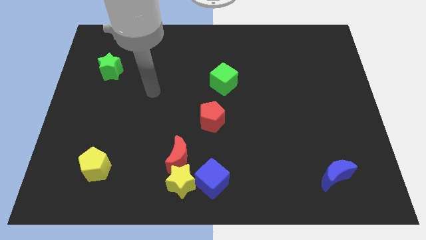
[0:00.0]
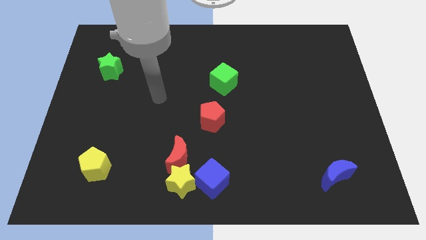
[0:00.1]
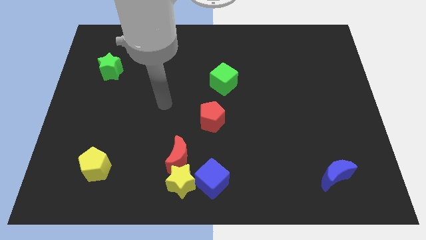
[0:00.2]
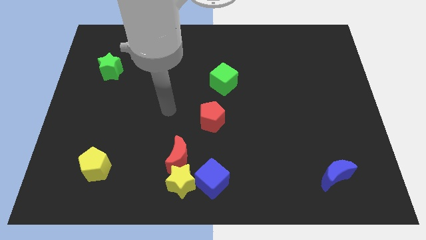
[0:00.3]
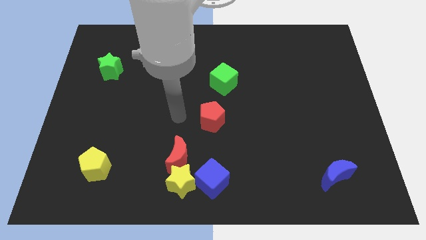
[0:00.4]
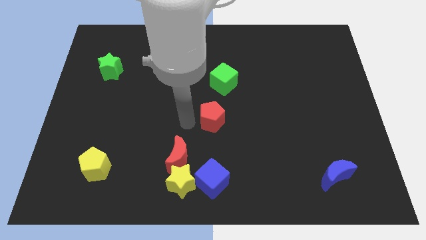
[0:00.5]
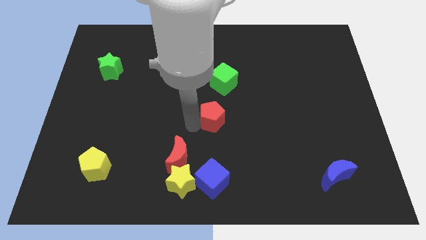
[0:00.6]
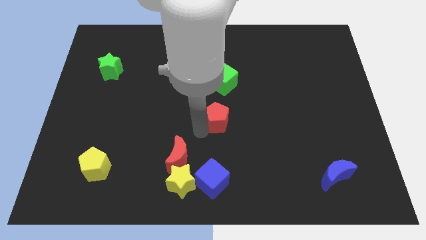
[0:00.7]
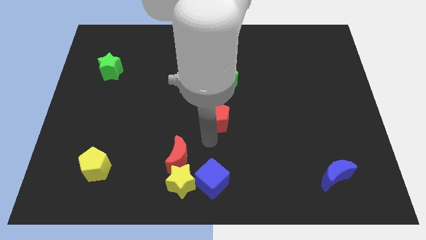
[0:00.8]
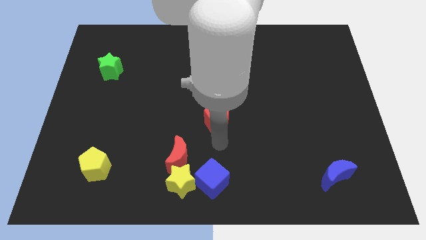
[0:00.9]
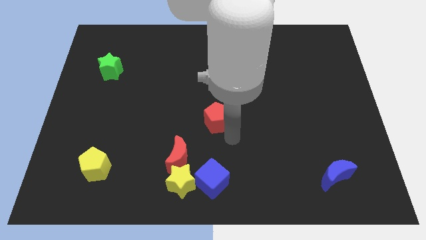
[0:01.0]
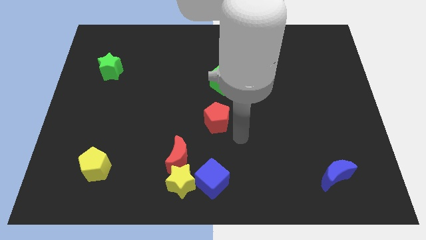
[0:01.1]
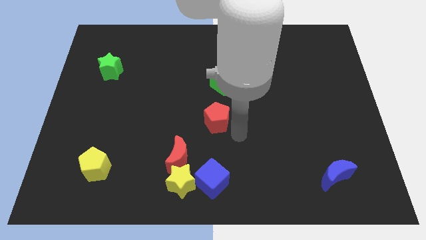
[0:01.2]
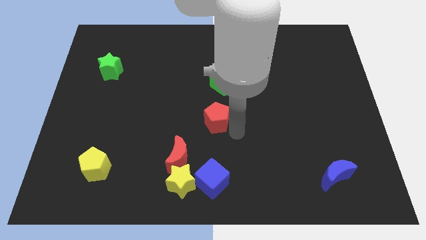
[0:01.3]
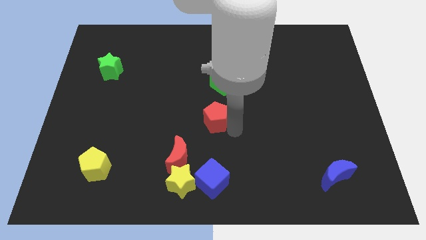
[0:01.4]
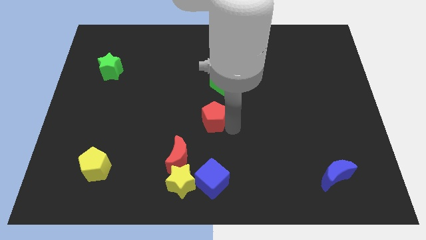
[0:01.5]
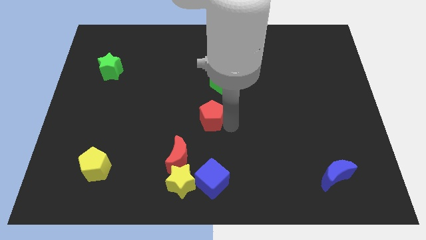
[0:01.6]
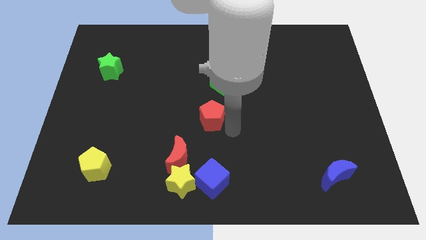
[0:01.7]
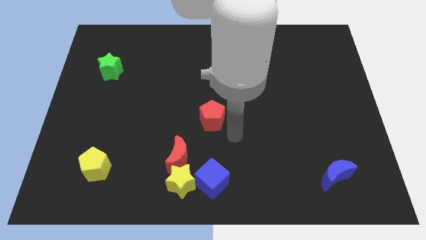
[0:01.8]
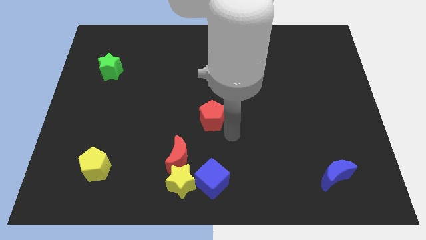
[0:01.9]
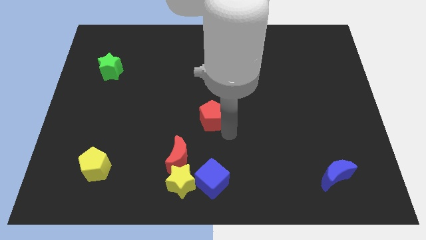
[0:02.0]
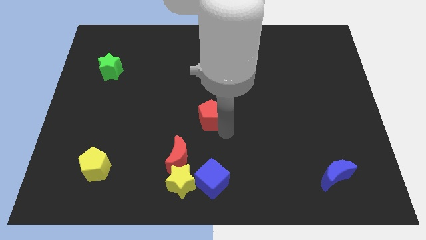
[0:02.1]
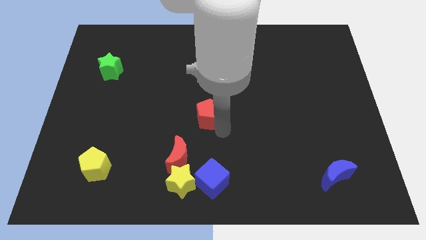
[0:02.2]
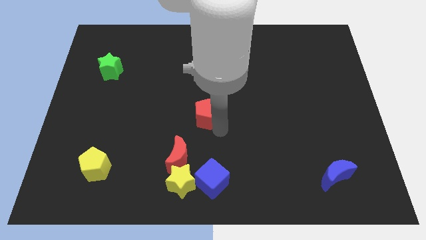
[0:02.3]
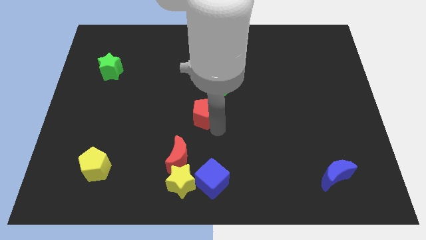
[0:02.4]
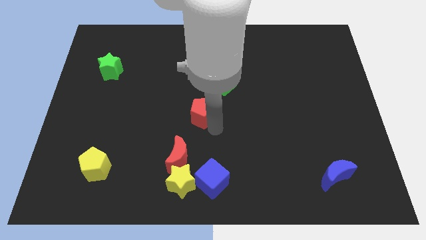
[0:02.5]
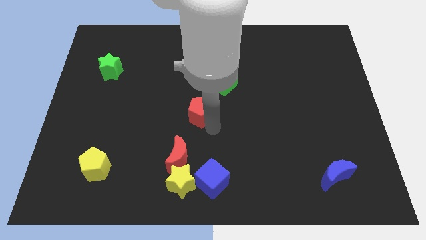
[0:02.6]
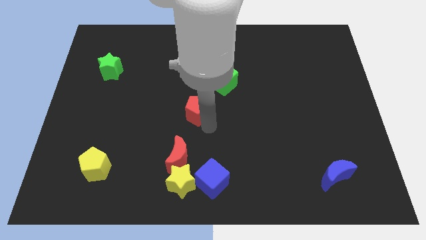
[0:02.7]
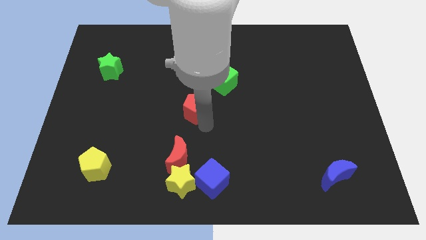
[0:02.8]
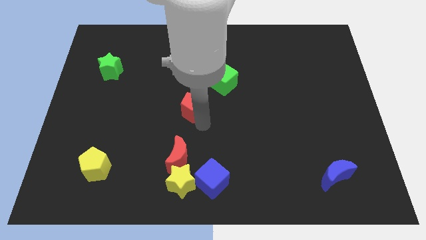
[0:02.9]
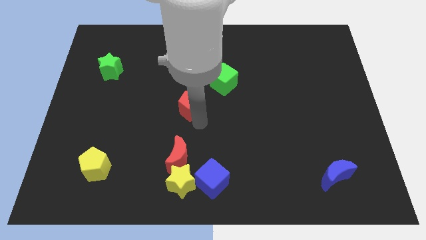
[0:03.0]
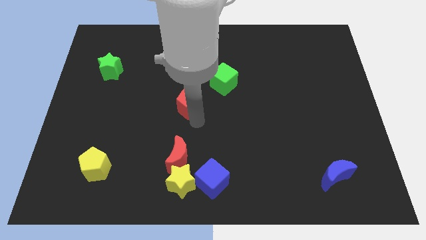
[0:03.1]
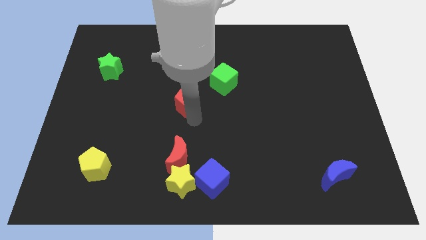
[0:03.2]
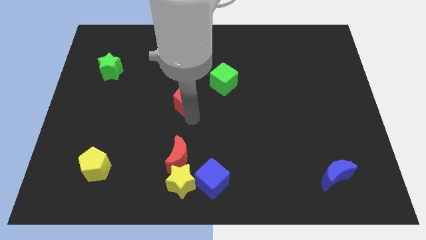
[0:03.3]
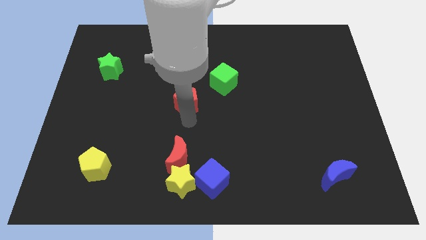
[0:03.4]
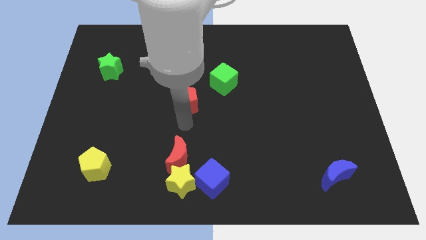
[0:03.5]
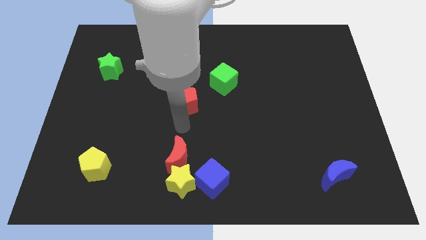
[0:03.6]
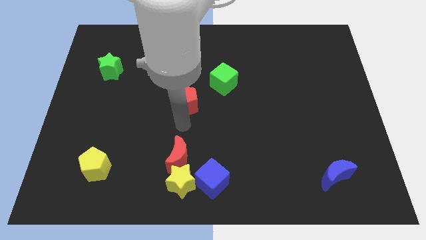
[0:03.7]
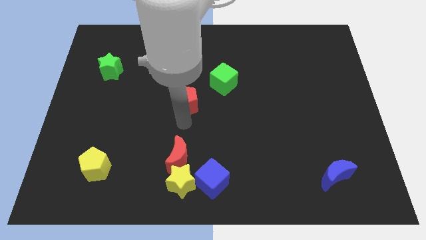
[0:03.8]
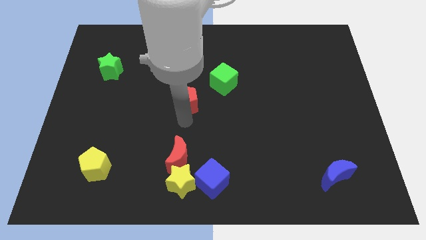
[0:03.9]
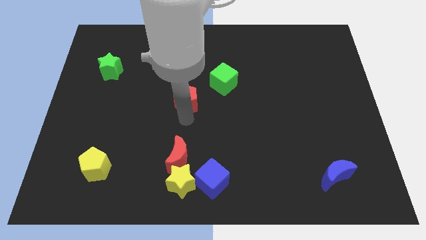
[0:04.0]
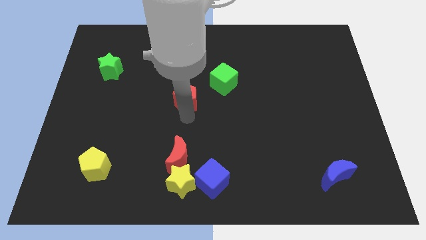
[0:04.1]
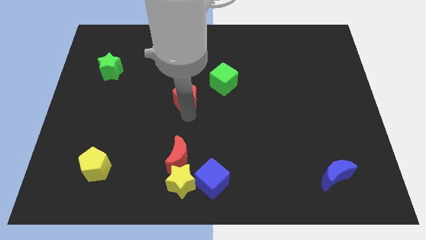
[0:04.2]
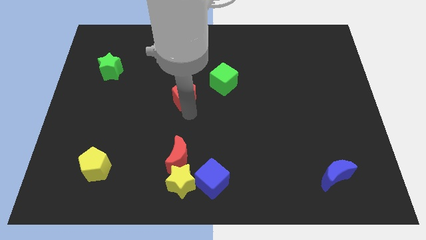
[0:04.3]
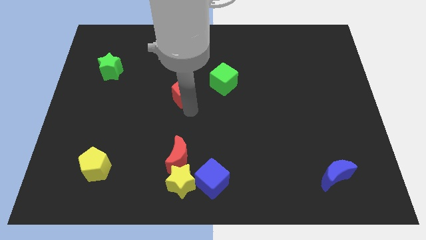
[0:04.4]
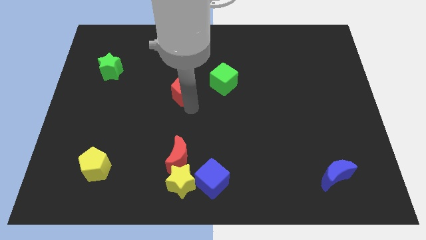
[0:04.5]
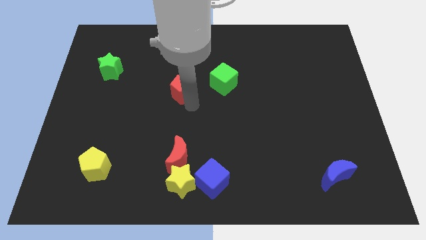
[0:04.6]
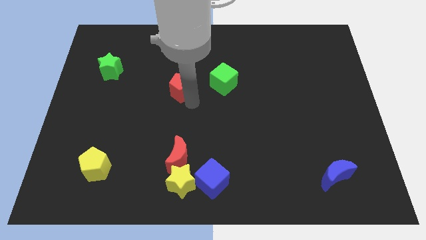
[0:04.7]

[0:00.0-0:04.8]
slightly slide the red pentagon upwards

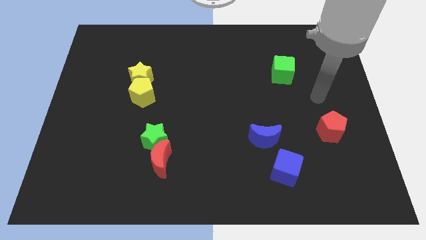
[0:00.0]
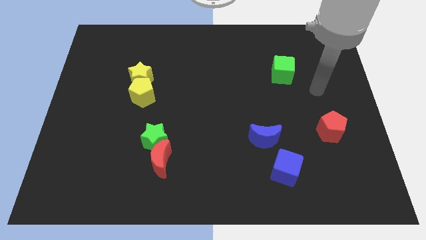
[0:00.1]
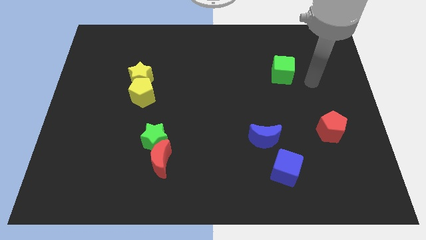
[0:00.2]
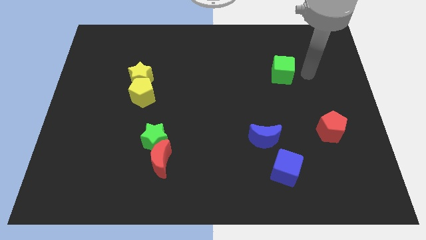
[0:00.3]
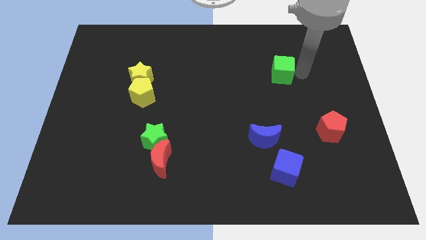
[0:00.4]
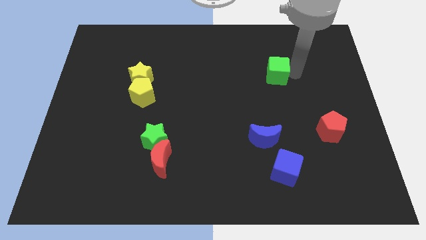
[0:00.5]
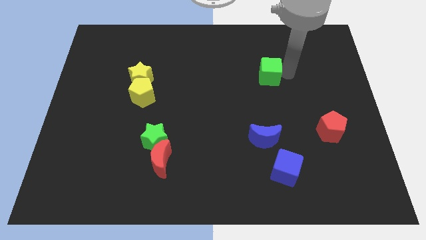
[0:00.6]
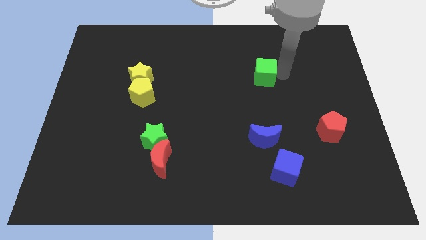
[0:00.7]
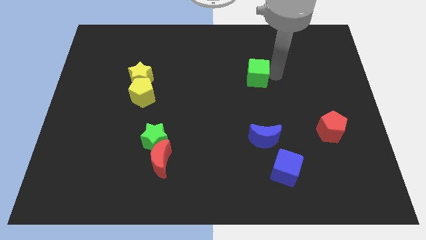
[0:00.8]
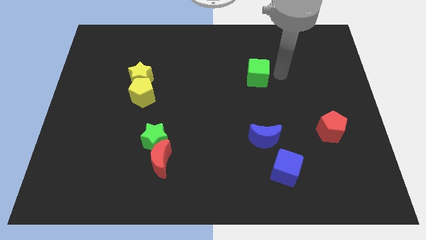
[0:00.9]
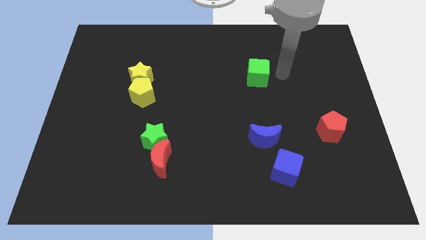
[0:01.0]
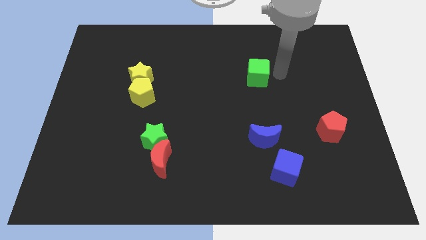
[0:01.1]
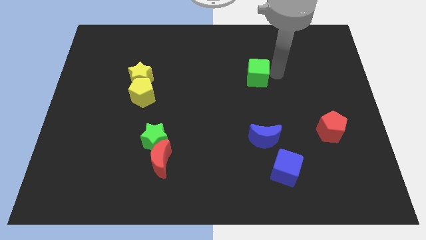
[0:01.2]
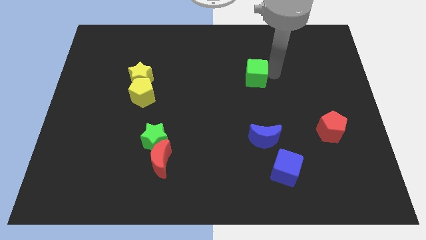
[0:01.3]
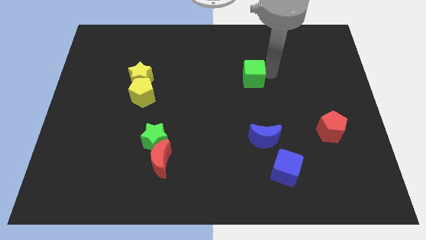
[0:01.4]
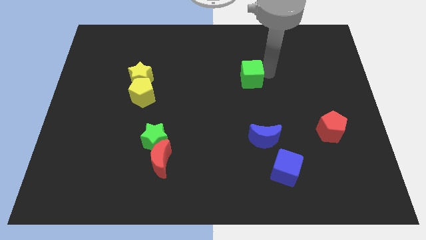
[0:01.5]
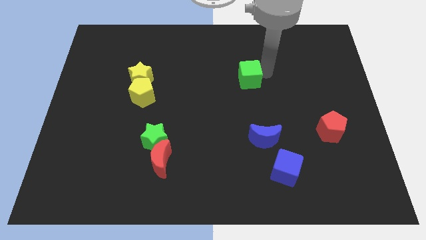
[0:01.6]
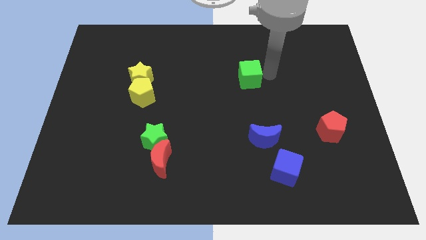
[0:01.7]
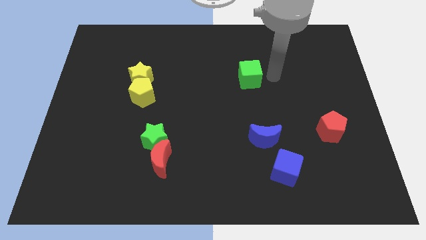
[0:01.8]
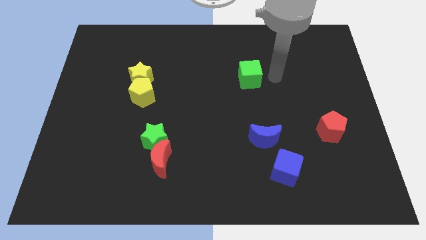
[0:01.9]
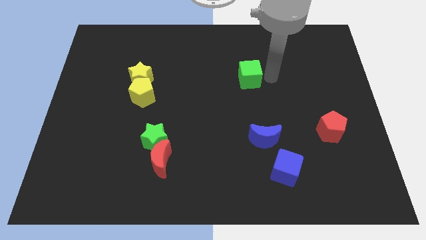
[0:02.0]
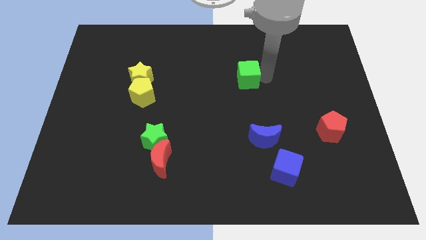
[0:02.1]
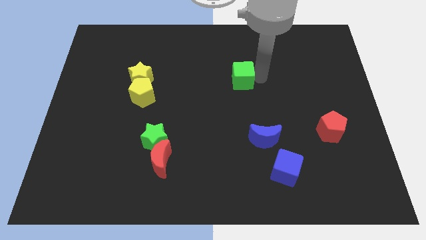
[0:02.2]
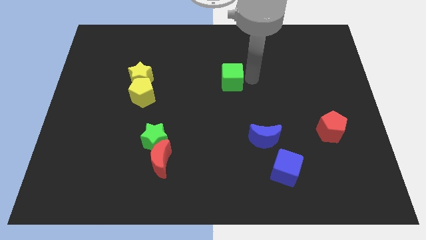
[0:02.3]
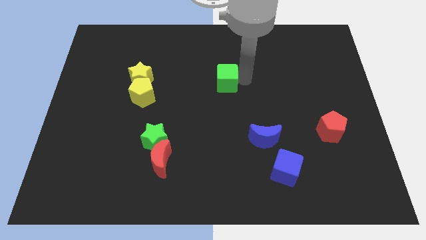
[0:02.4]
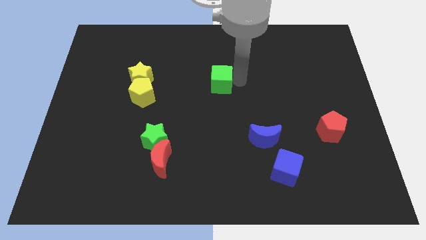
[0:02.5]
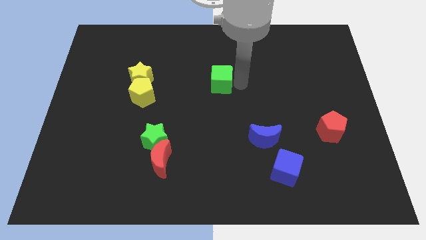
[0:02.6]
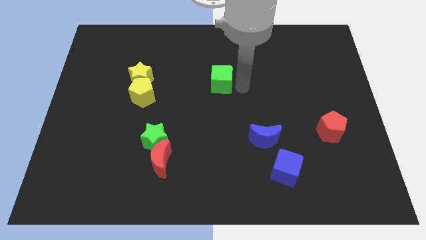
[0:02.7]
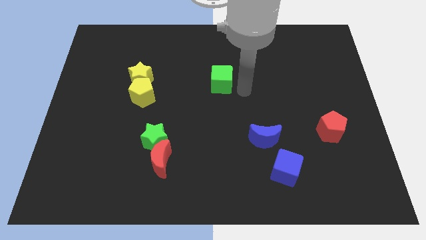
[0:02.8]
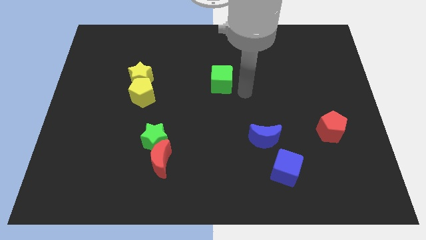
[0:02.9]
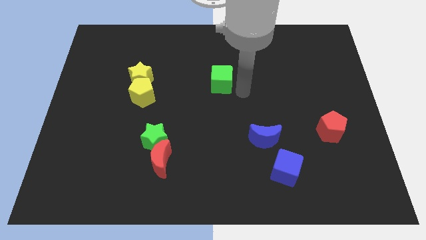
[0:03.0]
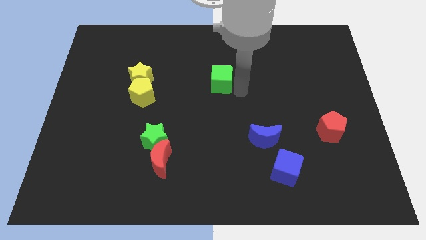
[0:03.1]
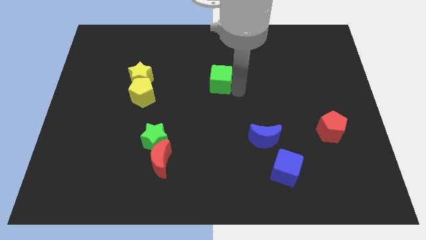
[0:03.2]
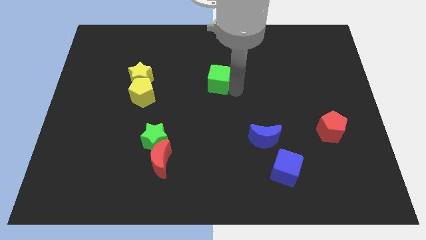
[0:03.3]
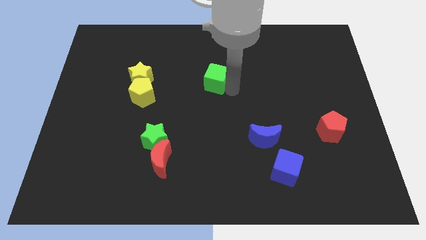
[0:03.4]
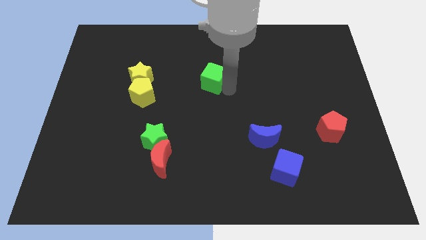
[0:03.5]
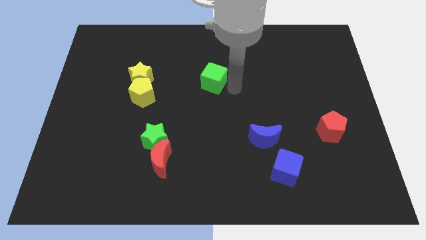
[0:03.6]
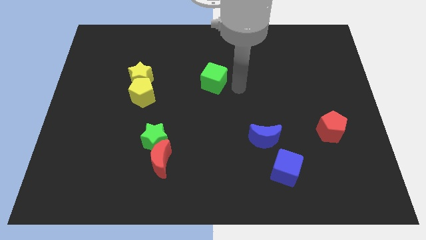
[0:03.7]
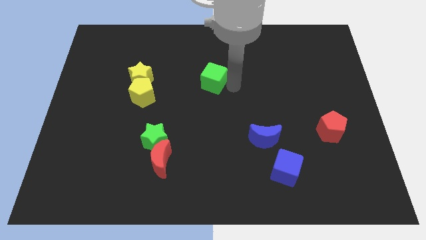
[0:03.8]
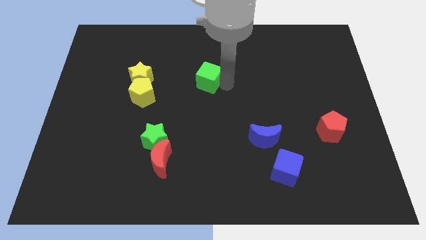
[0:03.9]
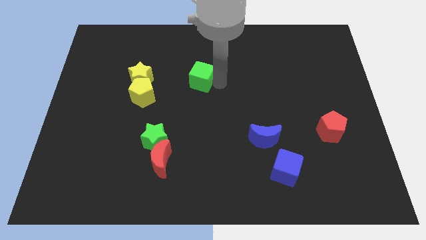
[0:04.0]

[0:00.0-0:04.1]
slide the green cube left
